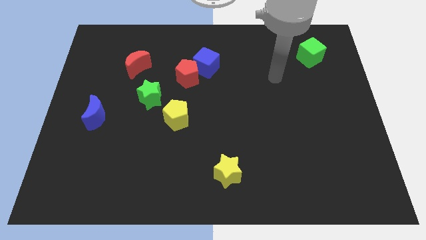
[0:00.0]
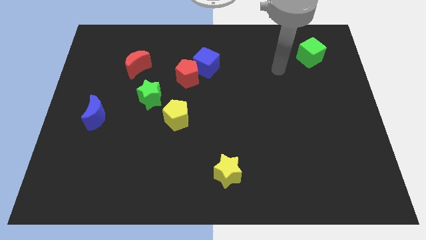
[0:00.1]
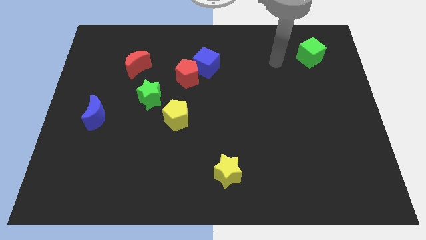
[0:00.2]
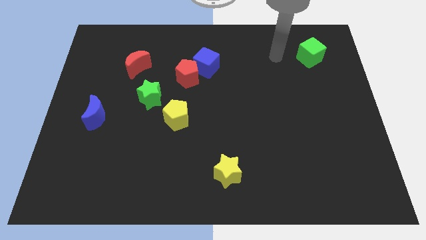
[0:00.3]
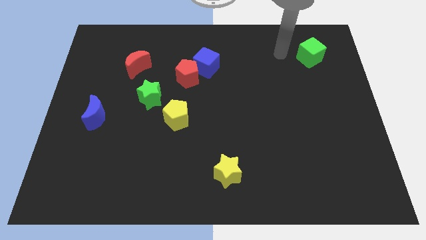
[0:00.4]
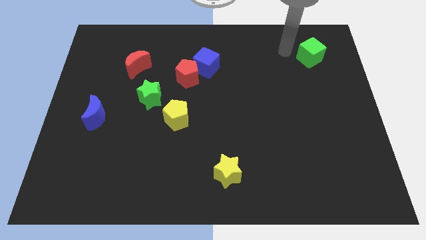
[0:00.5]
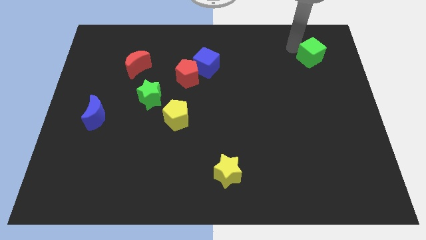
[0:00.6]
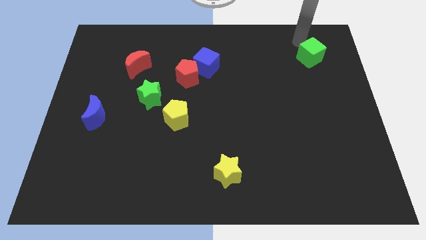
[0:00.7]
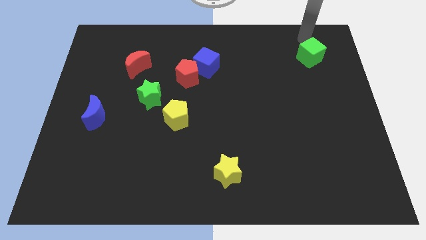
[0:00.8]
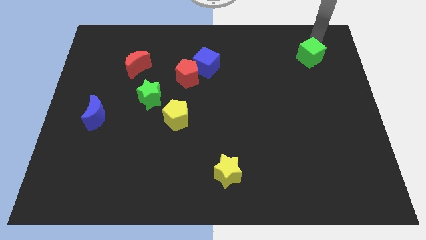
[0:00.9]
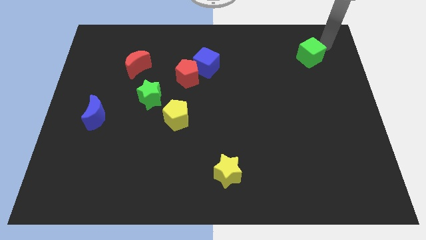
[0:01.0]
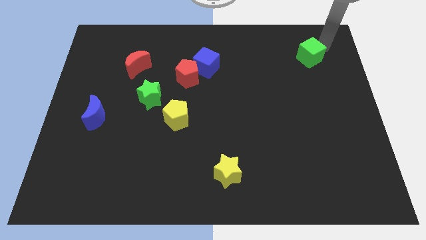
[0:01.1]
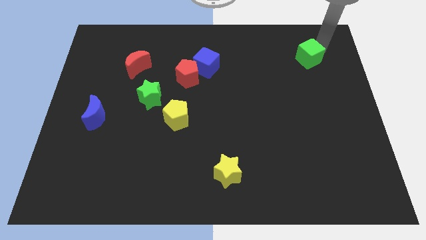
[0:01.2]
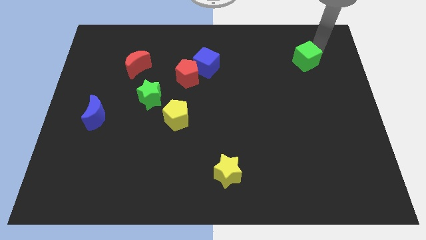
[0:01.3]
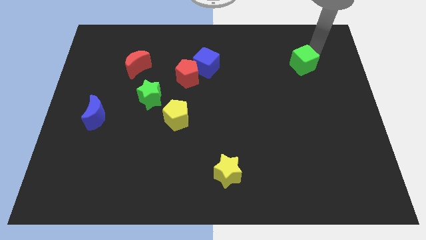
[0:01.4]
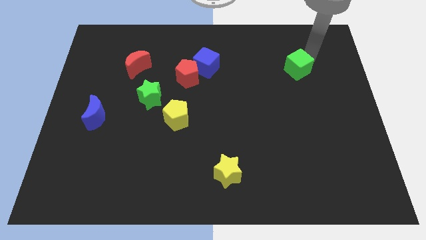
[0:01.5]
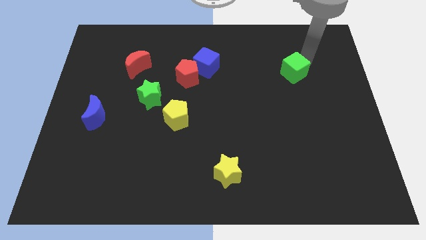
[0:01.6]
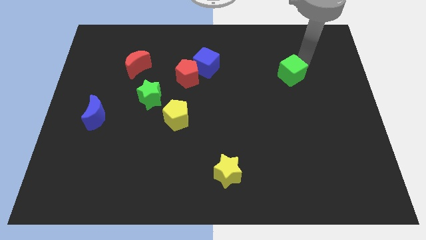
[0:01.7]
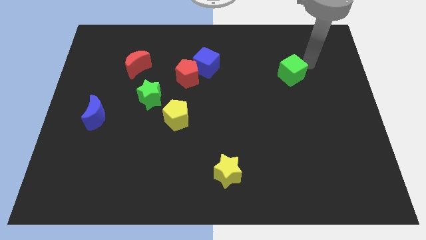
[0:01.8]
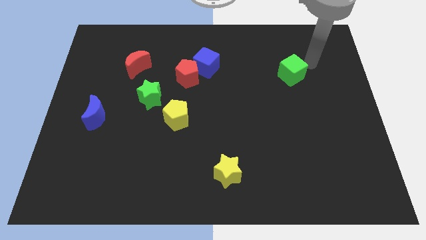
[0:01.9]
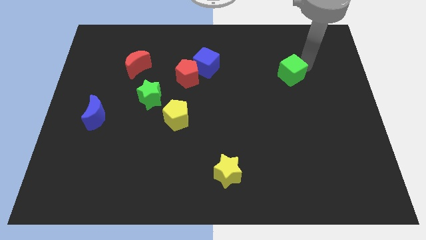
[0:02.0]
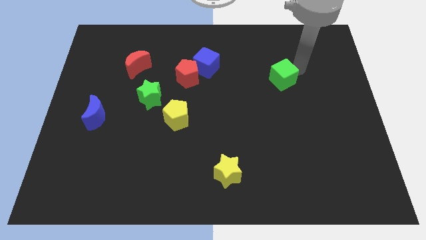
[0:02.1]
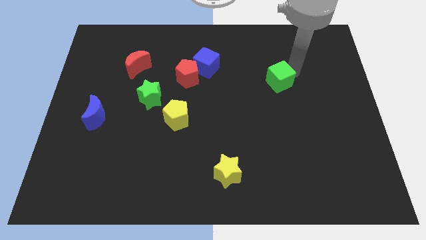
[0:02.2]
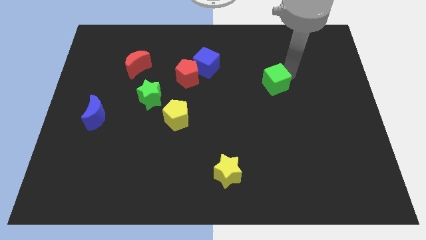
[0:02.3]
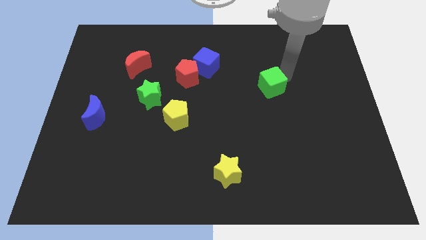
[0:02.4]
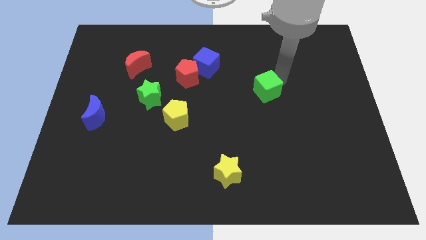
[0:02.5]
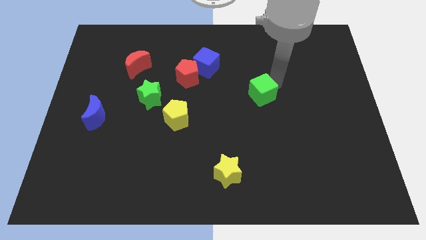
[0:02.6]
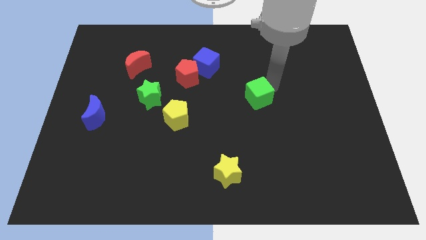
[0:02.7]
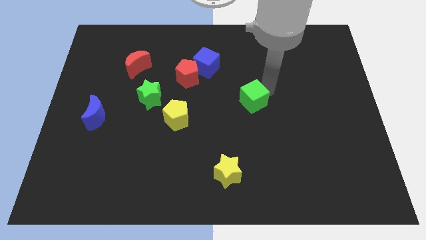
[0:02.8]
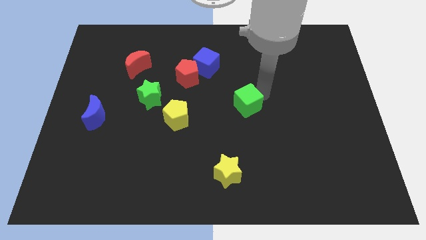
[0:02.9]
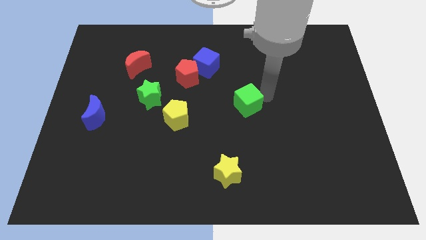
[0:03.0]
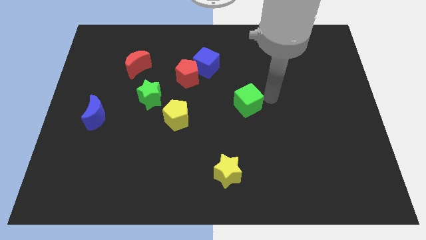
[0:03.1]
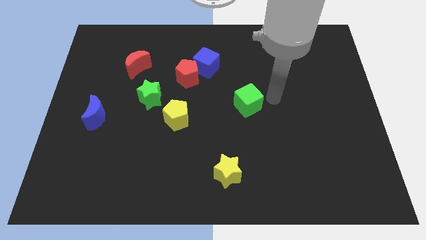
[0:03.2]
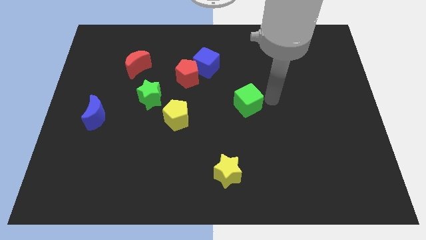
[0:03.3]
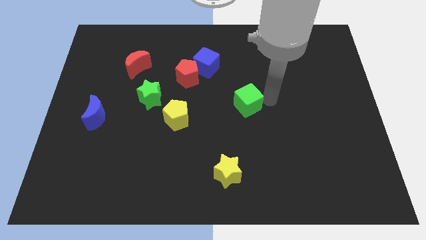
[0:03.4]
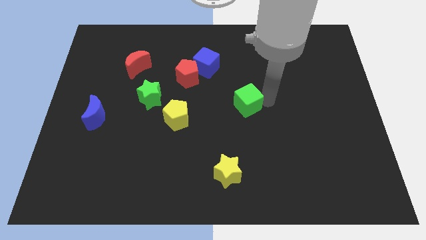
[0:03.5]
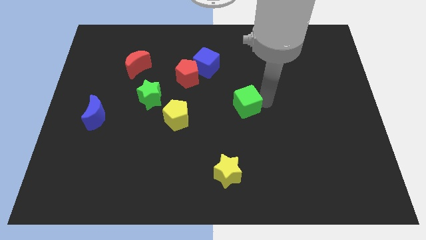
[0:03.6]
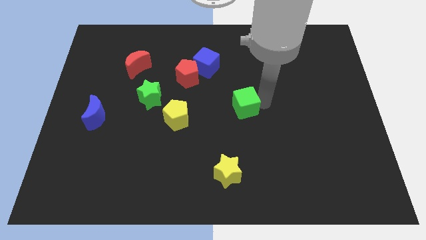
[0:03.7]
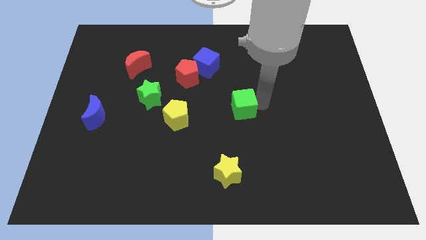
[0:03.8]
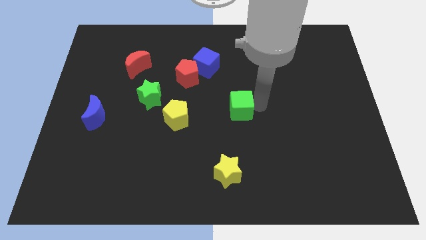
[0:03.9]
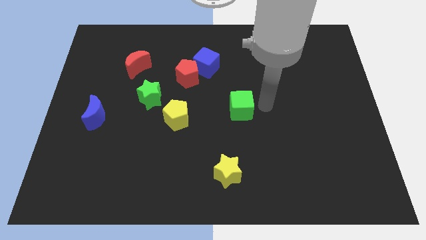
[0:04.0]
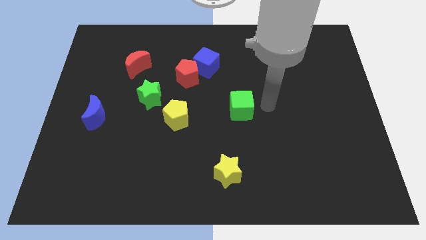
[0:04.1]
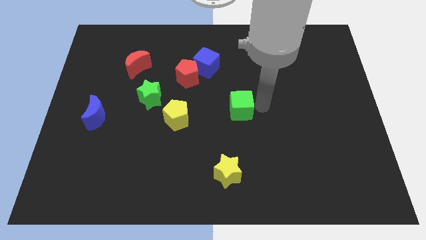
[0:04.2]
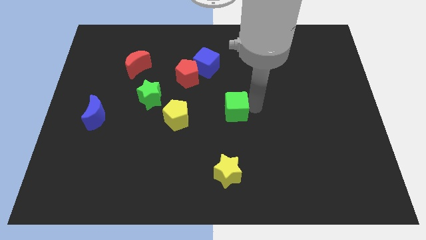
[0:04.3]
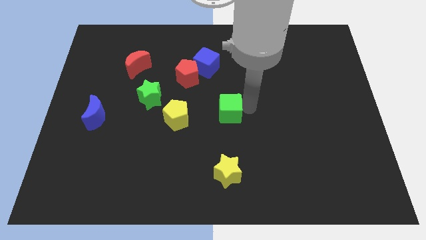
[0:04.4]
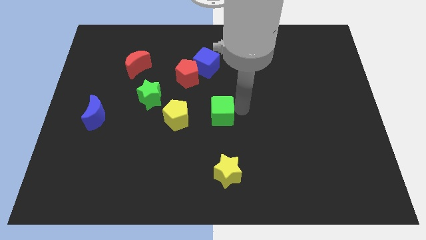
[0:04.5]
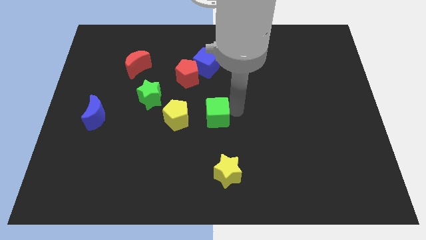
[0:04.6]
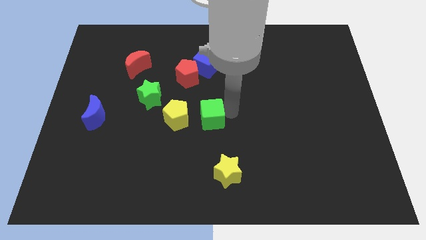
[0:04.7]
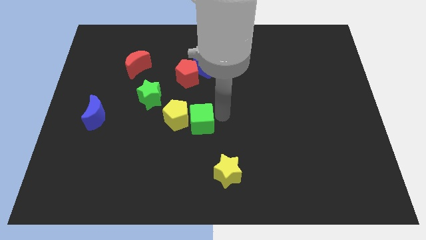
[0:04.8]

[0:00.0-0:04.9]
push the green cube towards the yellow pentagon

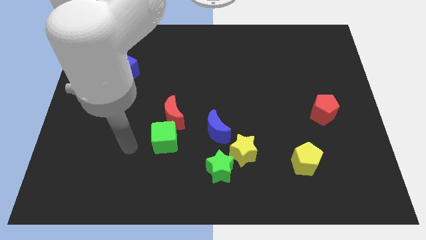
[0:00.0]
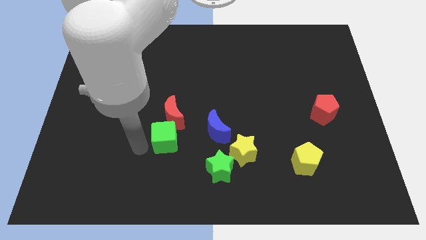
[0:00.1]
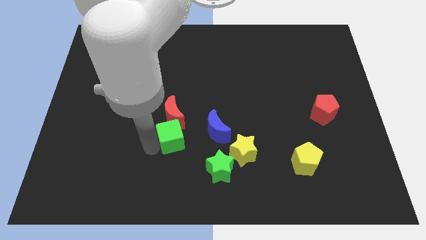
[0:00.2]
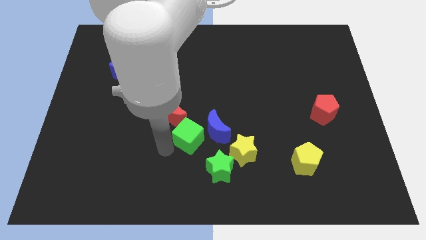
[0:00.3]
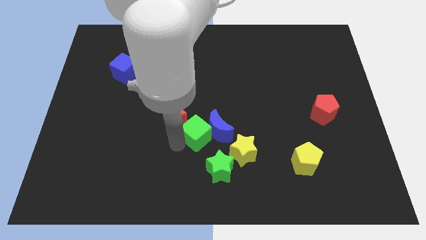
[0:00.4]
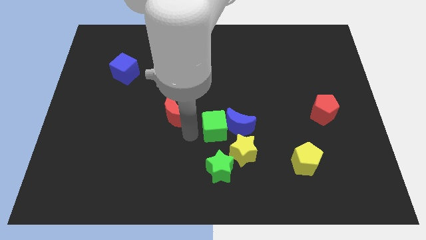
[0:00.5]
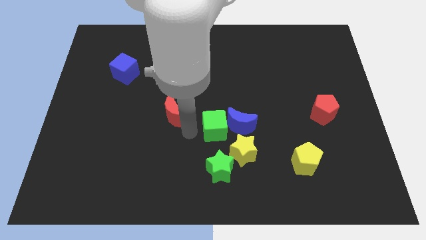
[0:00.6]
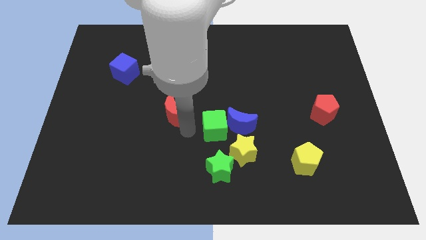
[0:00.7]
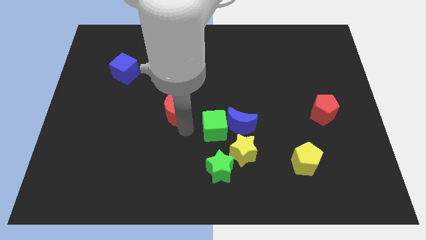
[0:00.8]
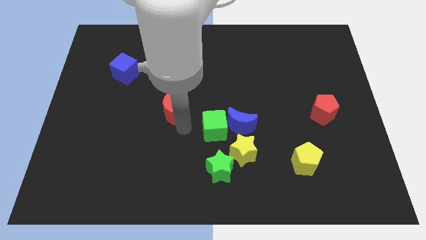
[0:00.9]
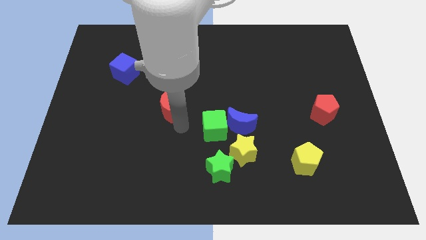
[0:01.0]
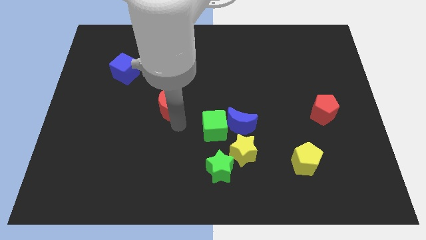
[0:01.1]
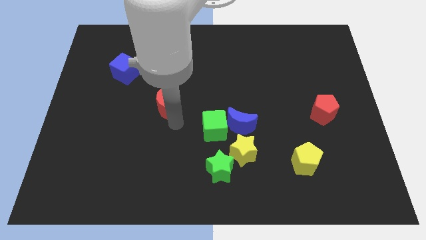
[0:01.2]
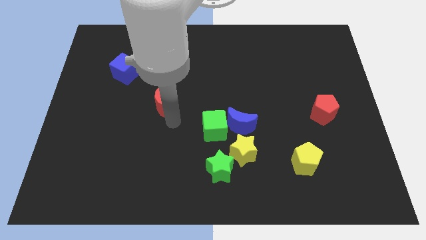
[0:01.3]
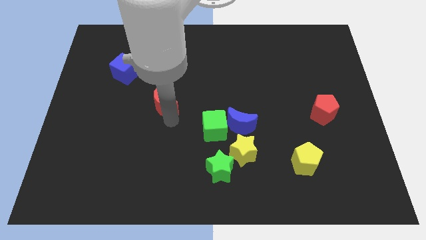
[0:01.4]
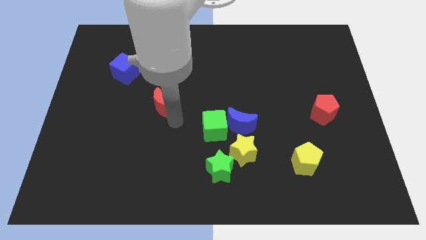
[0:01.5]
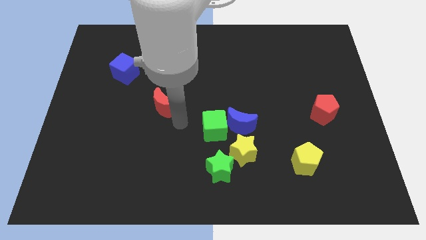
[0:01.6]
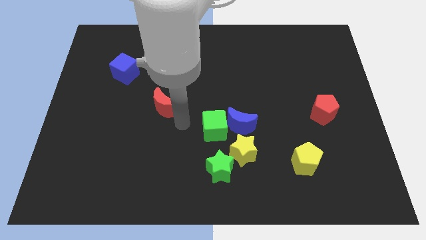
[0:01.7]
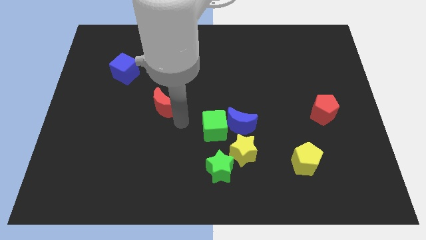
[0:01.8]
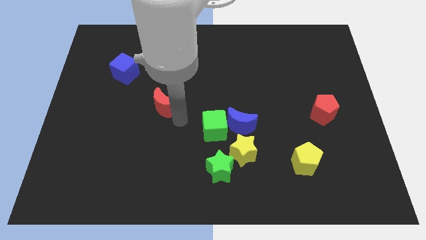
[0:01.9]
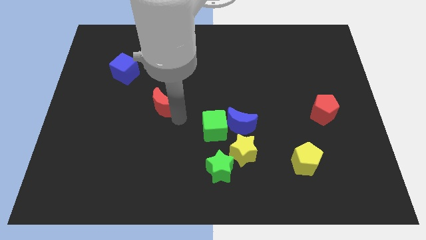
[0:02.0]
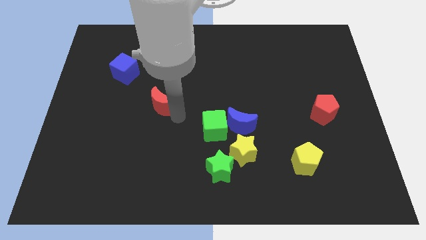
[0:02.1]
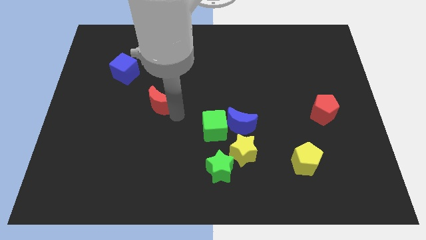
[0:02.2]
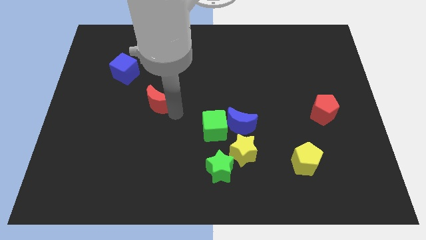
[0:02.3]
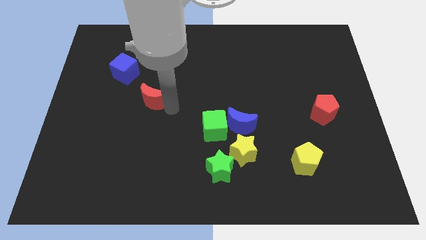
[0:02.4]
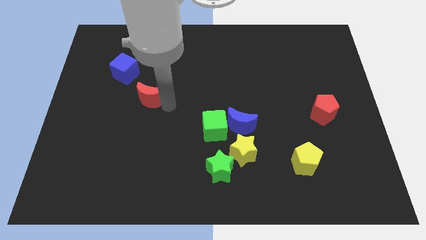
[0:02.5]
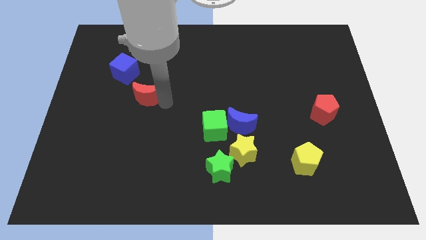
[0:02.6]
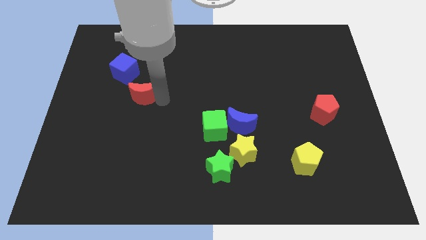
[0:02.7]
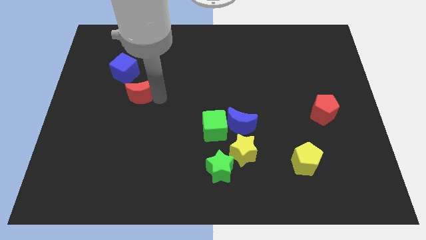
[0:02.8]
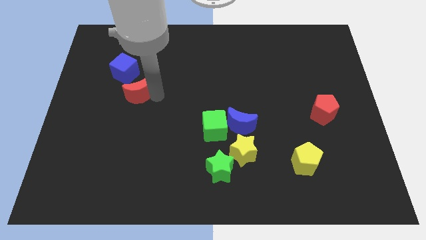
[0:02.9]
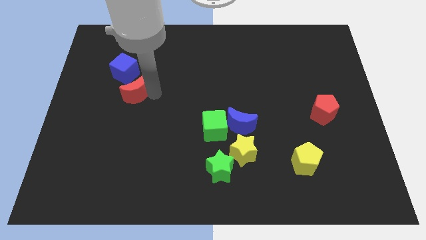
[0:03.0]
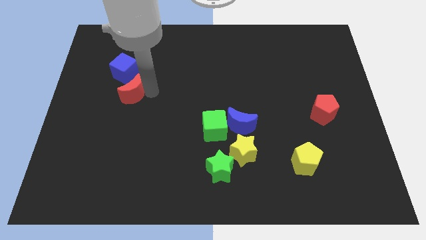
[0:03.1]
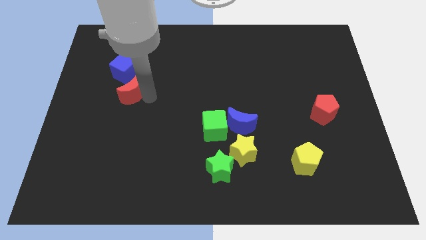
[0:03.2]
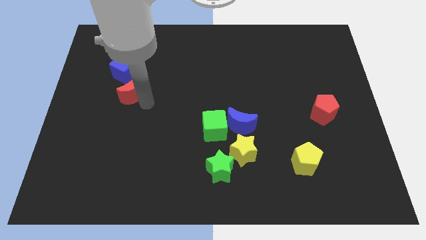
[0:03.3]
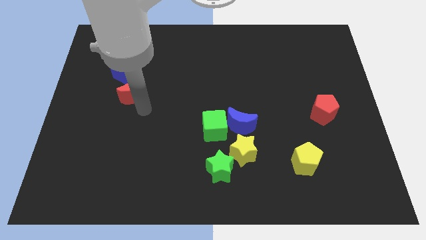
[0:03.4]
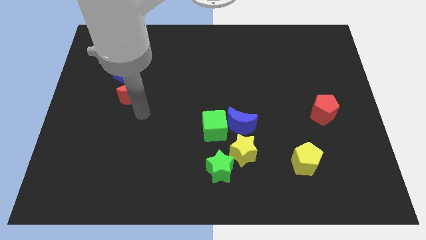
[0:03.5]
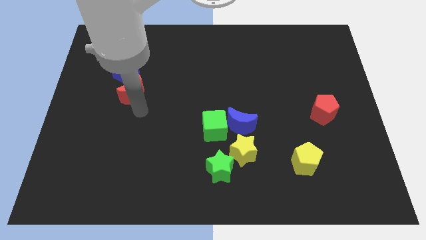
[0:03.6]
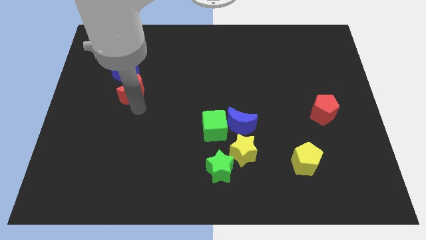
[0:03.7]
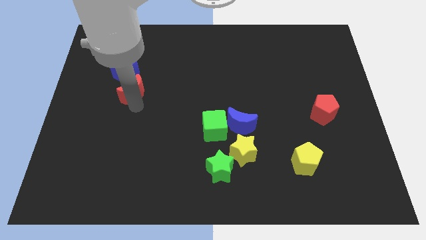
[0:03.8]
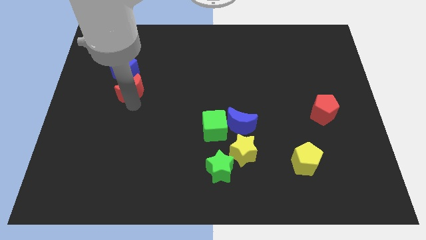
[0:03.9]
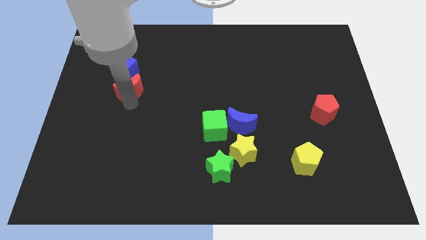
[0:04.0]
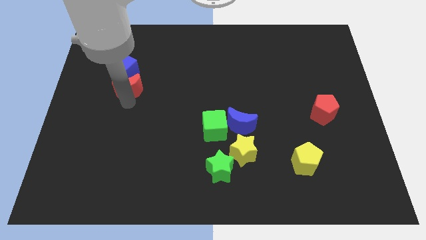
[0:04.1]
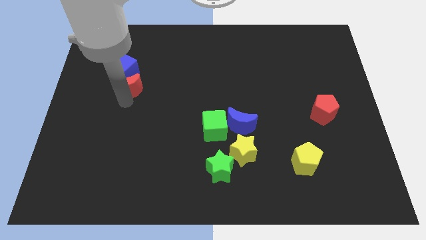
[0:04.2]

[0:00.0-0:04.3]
push the red moon next to the blue cube
